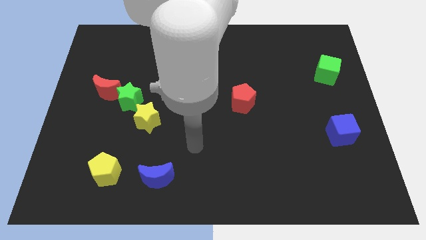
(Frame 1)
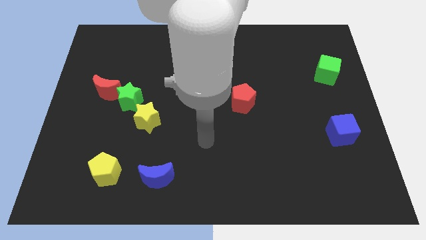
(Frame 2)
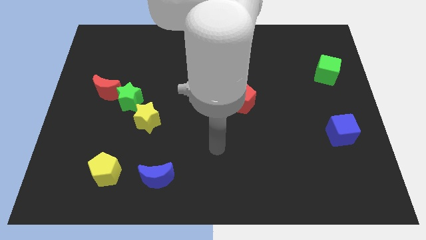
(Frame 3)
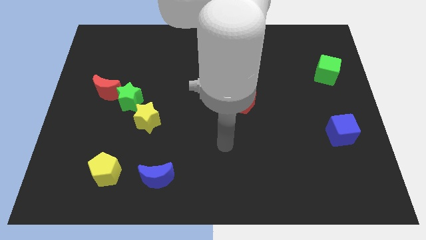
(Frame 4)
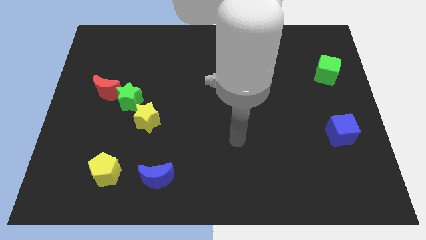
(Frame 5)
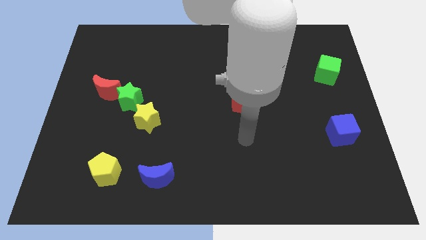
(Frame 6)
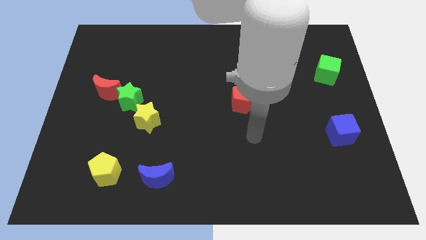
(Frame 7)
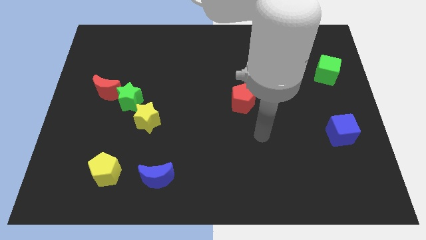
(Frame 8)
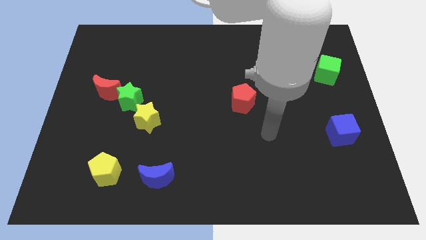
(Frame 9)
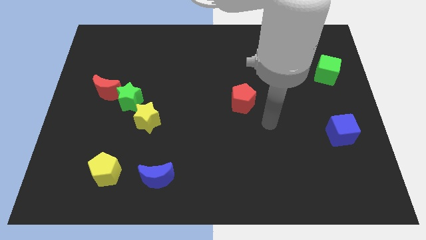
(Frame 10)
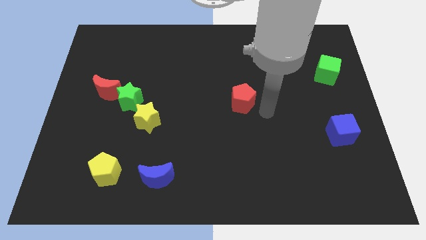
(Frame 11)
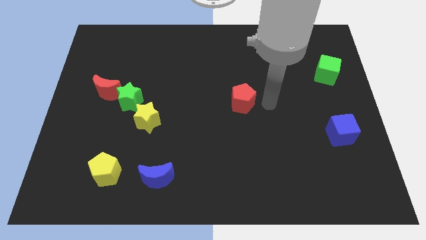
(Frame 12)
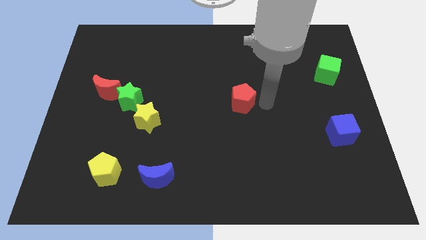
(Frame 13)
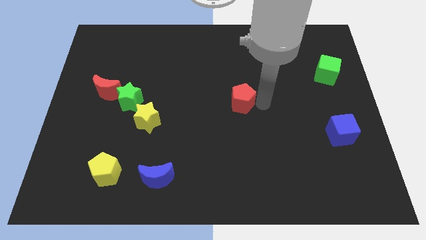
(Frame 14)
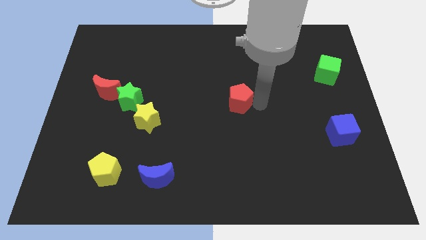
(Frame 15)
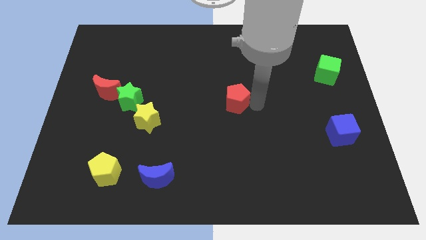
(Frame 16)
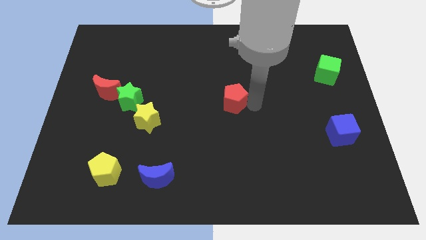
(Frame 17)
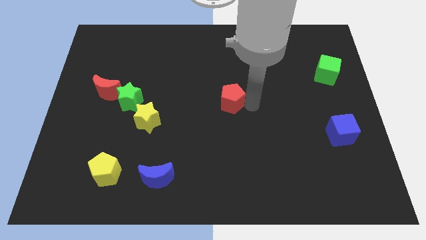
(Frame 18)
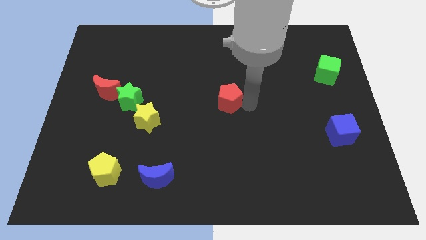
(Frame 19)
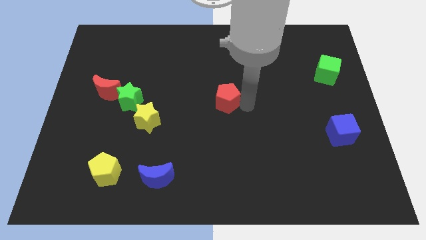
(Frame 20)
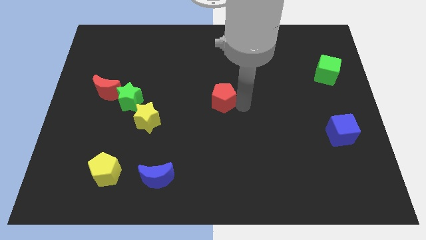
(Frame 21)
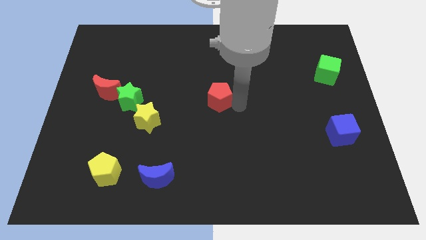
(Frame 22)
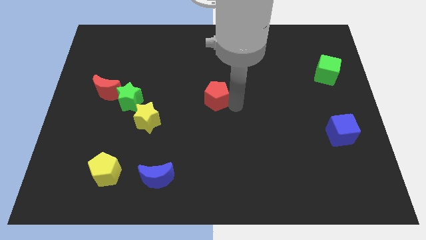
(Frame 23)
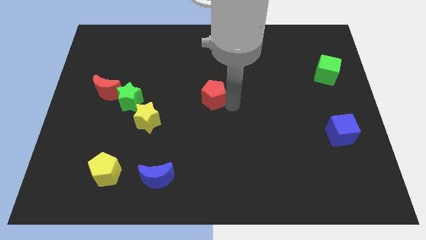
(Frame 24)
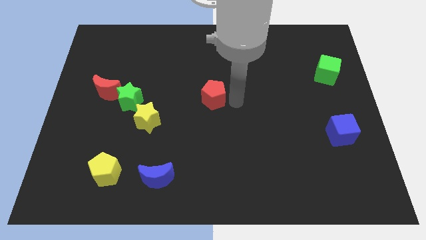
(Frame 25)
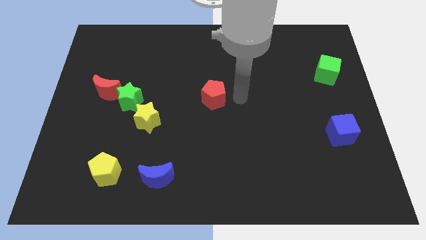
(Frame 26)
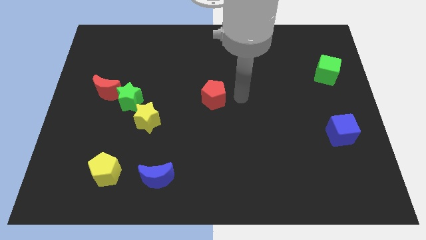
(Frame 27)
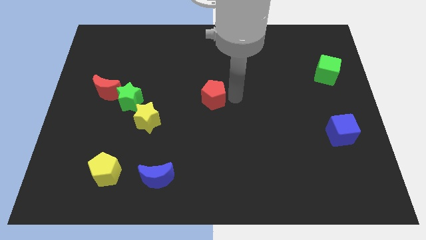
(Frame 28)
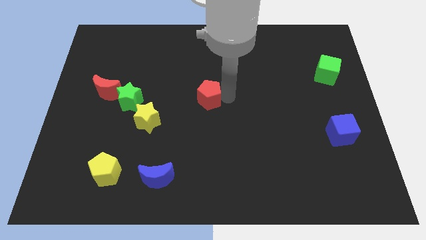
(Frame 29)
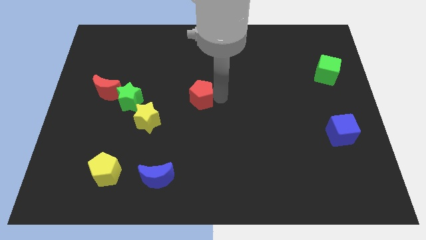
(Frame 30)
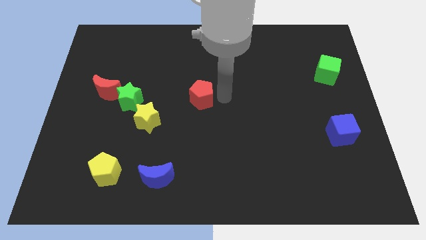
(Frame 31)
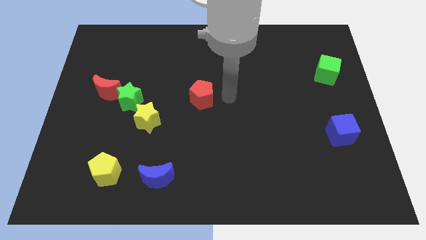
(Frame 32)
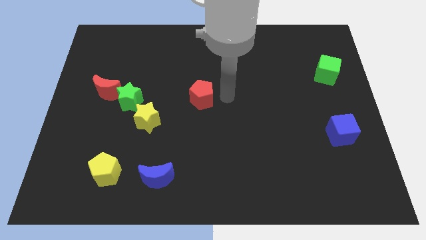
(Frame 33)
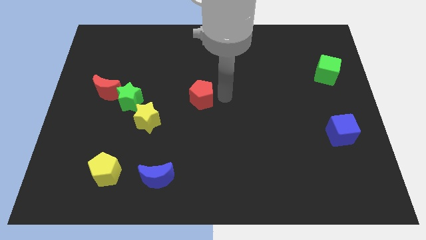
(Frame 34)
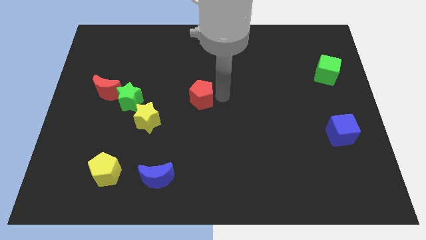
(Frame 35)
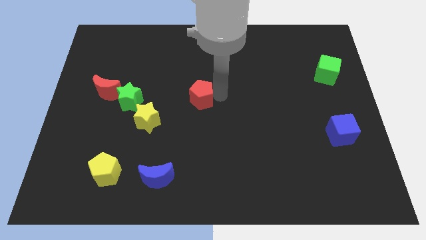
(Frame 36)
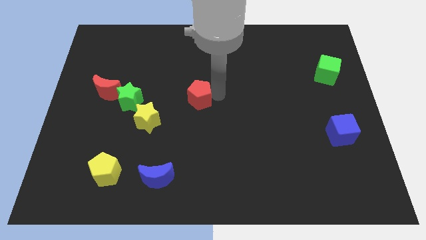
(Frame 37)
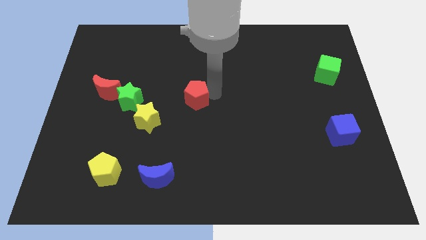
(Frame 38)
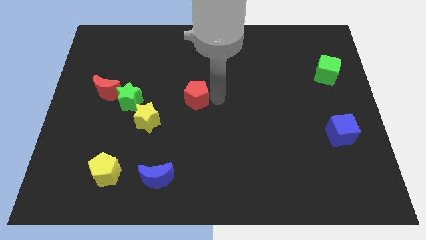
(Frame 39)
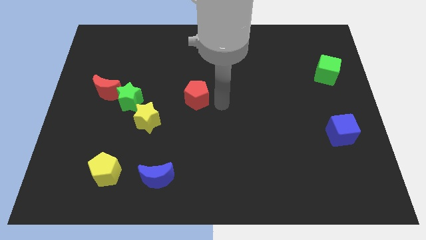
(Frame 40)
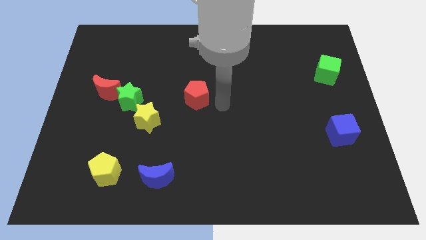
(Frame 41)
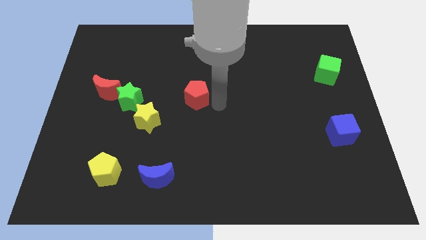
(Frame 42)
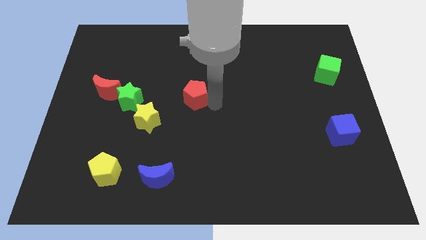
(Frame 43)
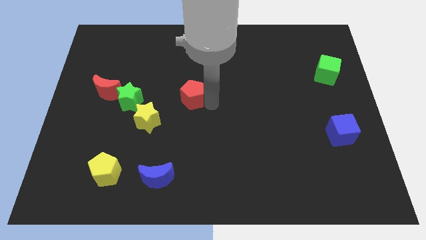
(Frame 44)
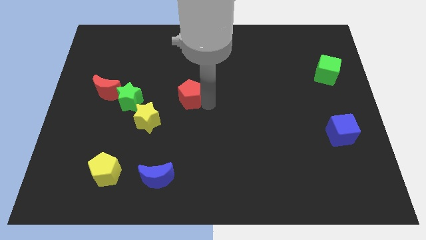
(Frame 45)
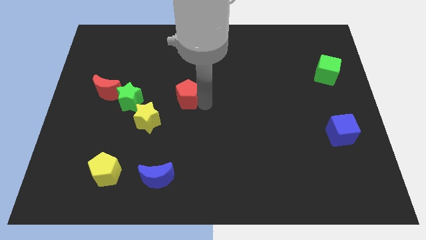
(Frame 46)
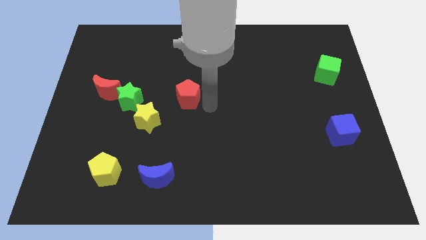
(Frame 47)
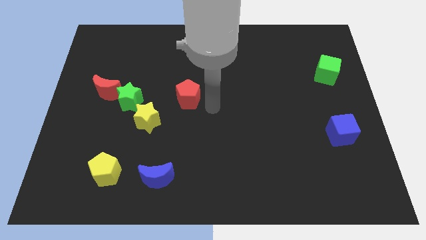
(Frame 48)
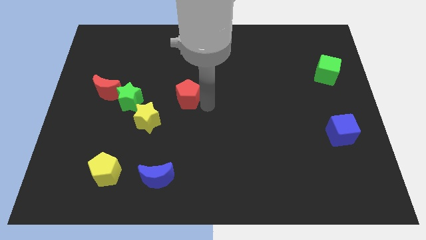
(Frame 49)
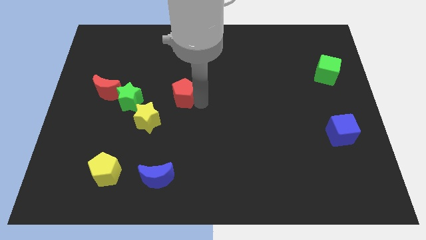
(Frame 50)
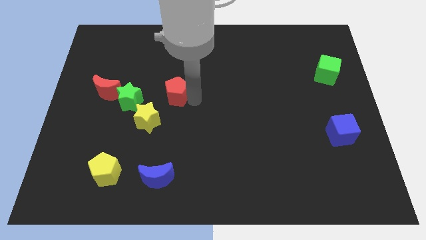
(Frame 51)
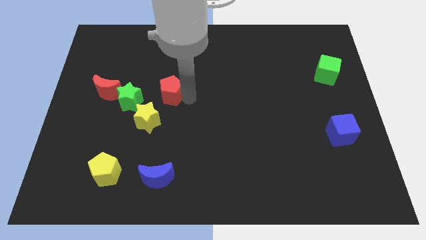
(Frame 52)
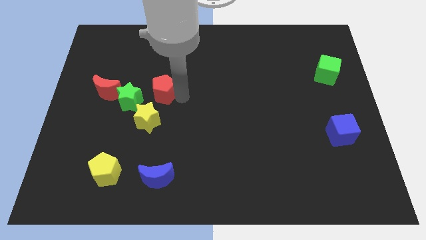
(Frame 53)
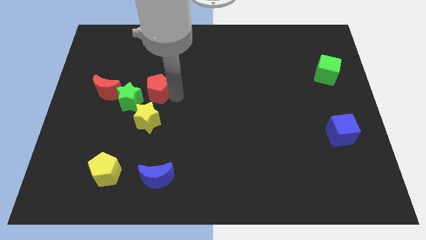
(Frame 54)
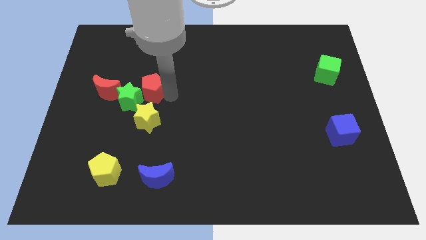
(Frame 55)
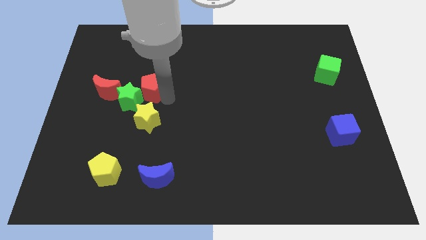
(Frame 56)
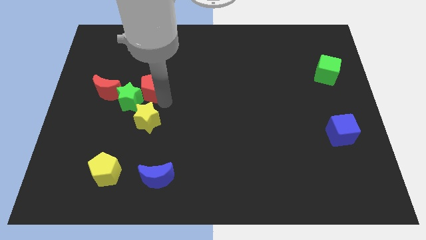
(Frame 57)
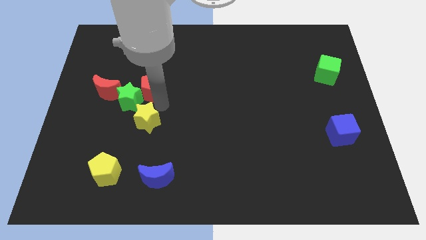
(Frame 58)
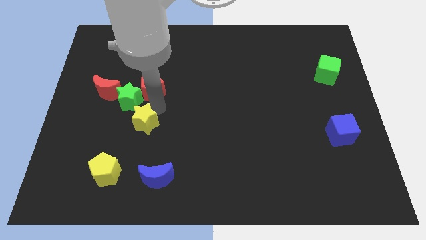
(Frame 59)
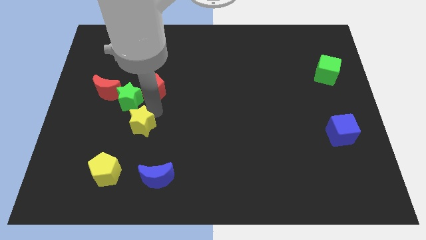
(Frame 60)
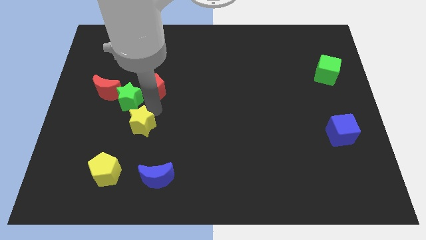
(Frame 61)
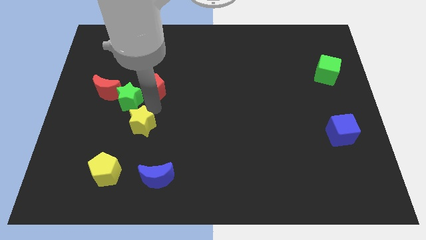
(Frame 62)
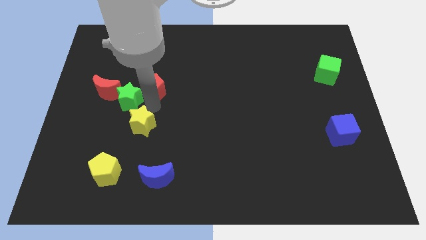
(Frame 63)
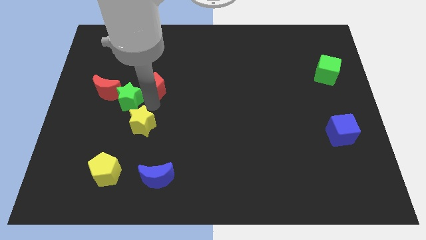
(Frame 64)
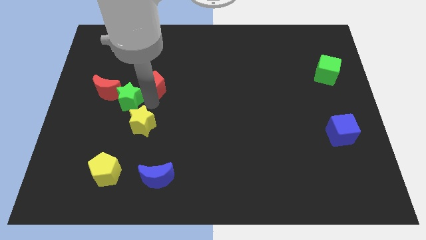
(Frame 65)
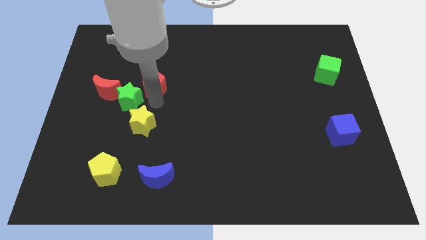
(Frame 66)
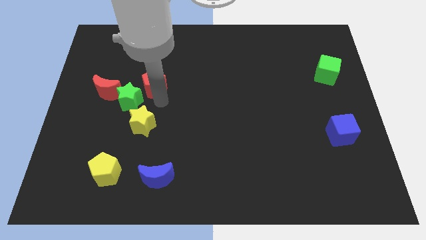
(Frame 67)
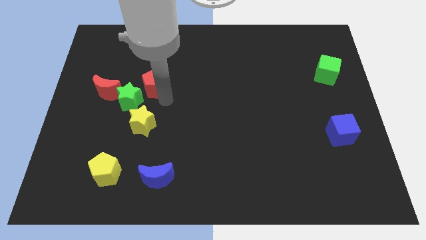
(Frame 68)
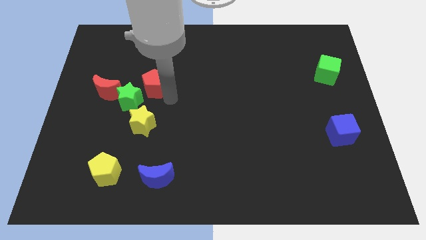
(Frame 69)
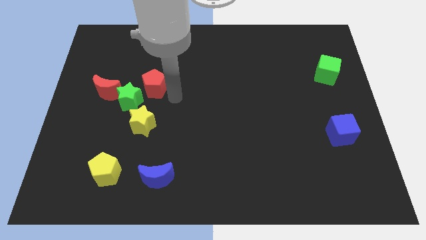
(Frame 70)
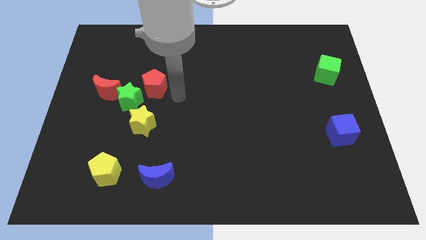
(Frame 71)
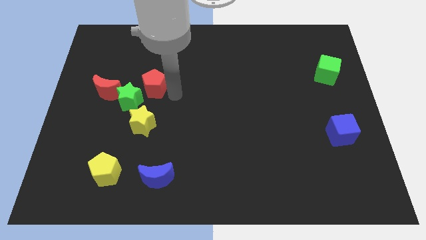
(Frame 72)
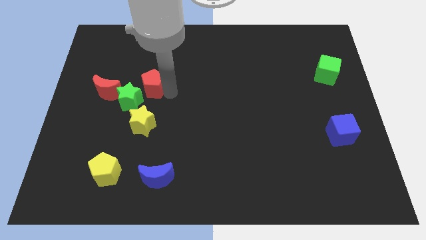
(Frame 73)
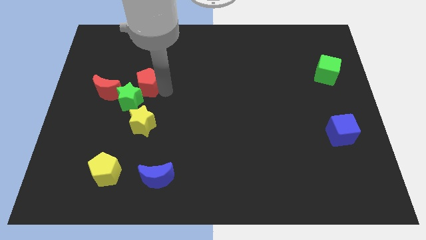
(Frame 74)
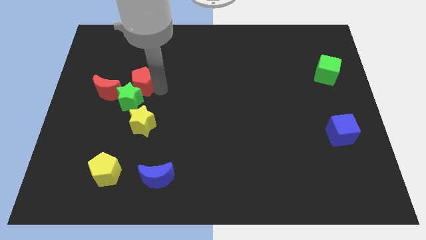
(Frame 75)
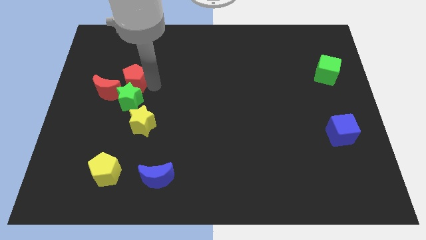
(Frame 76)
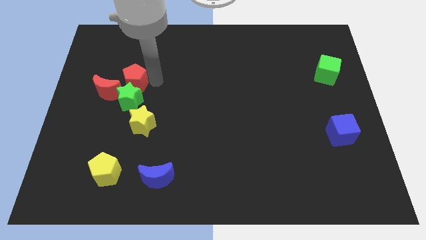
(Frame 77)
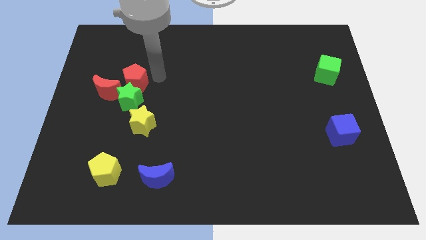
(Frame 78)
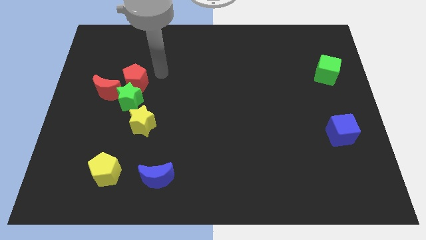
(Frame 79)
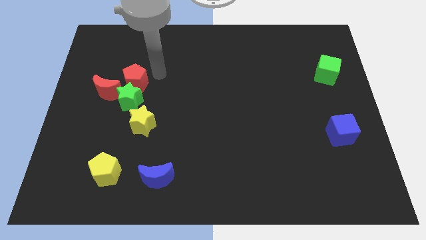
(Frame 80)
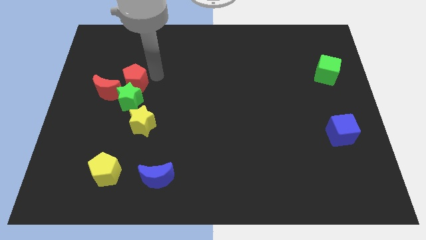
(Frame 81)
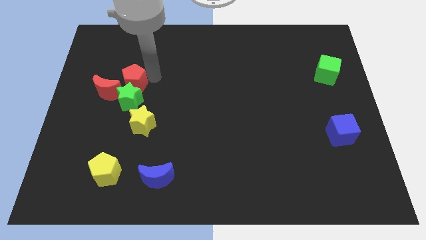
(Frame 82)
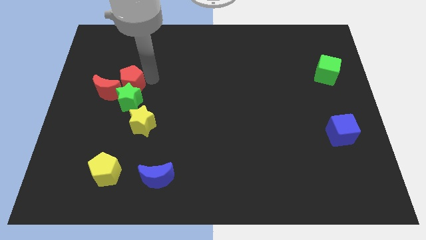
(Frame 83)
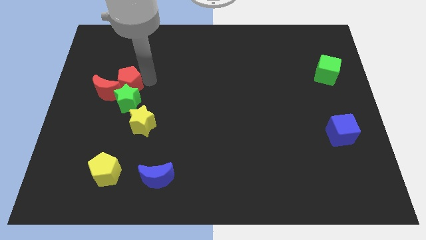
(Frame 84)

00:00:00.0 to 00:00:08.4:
move the red pentagon close to the red moon
